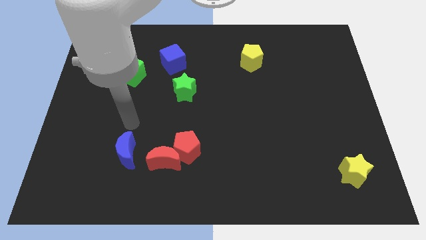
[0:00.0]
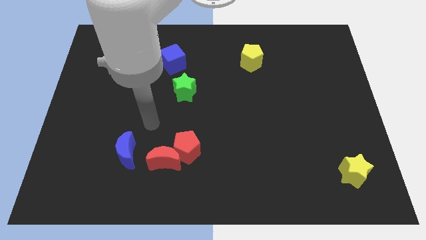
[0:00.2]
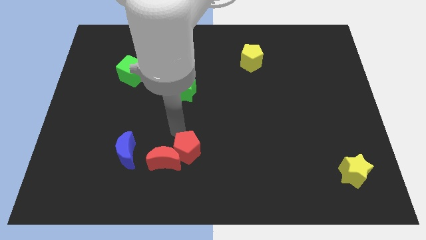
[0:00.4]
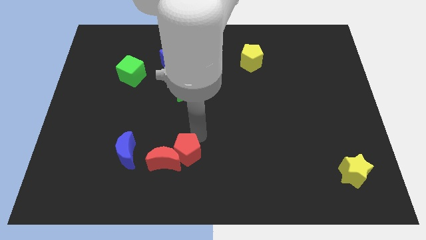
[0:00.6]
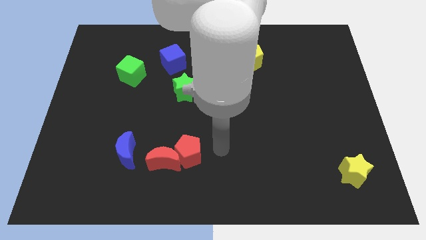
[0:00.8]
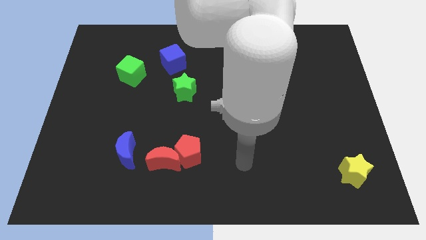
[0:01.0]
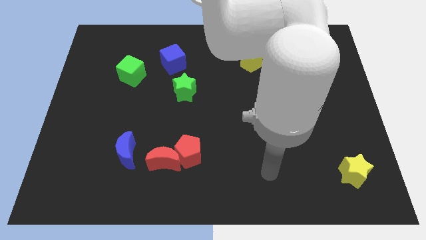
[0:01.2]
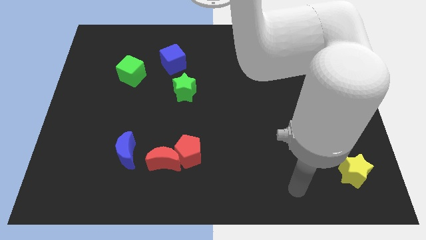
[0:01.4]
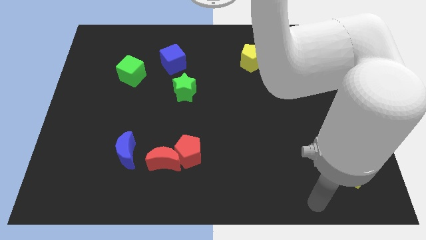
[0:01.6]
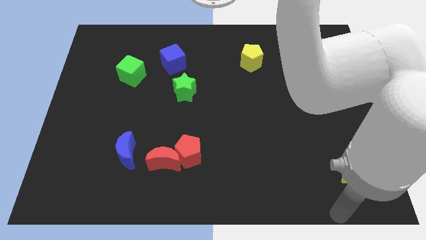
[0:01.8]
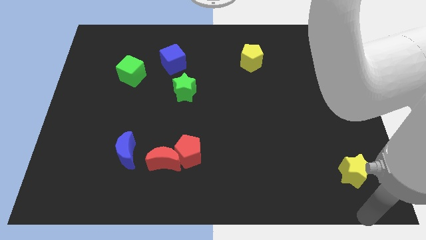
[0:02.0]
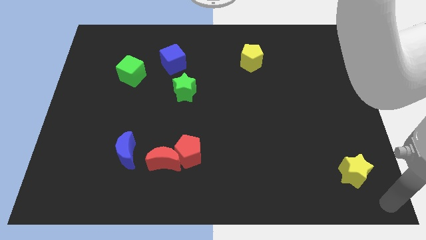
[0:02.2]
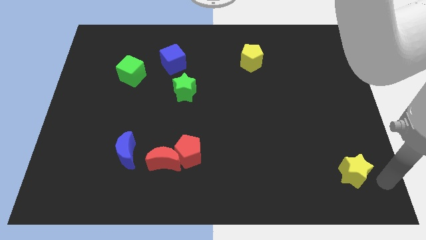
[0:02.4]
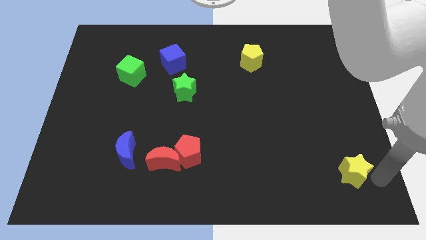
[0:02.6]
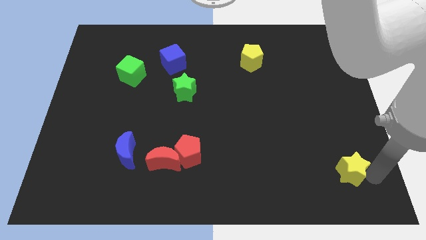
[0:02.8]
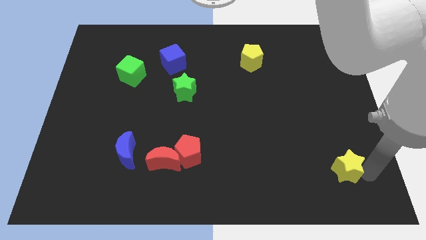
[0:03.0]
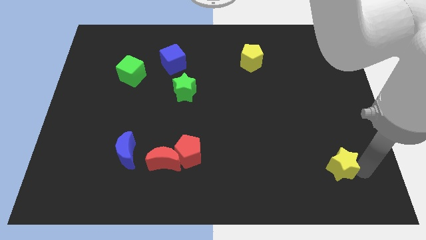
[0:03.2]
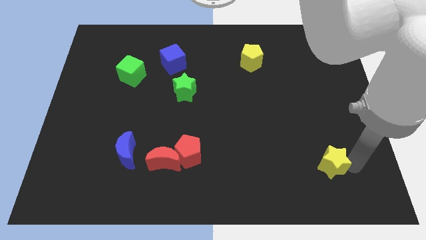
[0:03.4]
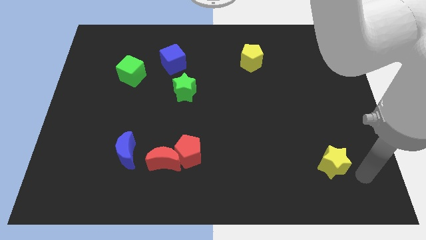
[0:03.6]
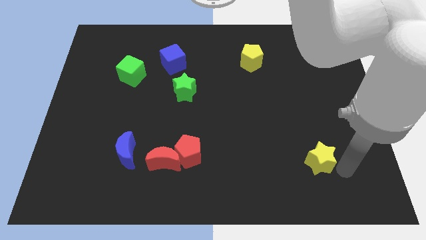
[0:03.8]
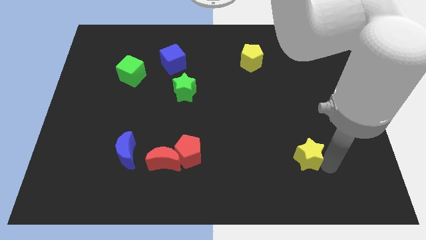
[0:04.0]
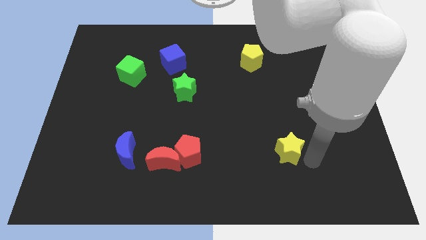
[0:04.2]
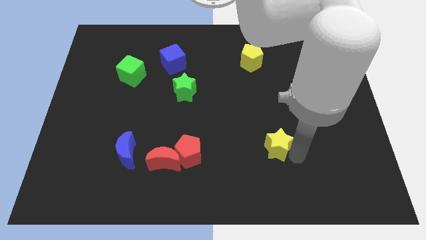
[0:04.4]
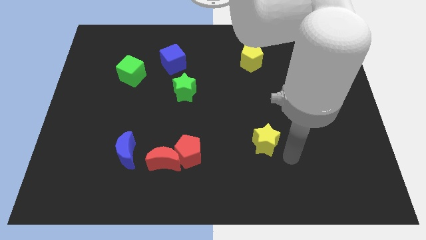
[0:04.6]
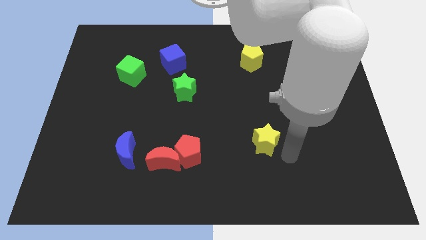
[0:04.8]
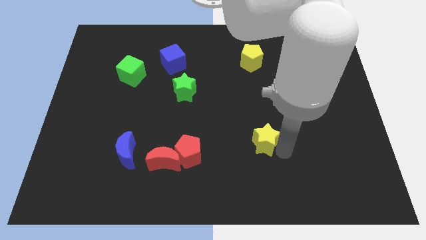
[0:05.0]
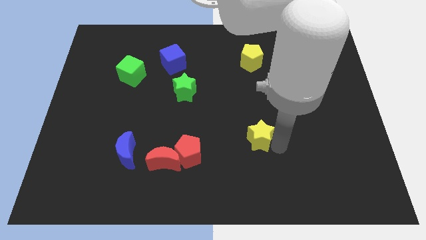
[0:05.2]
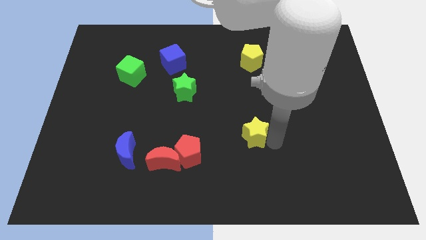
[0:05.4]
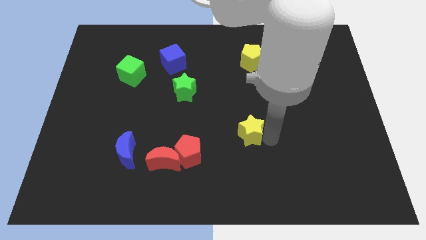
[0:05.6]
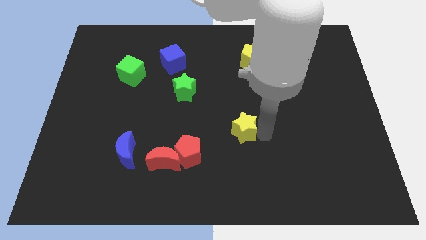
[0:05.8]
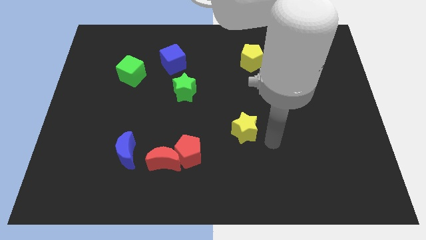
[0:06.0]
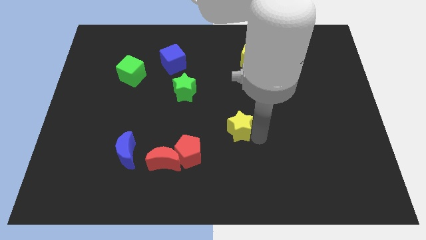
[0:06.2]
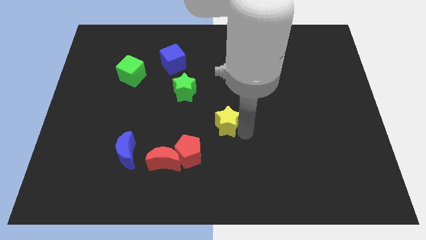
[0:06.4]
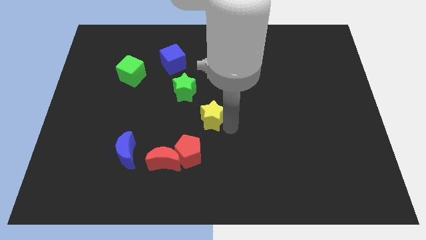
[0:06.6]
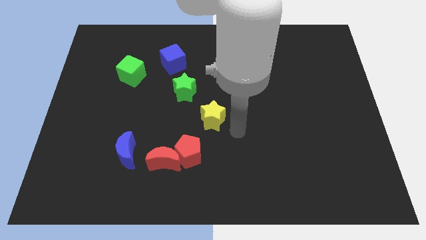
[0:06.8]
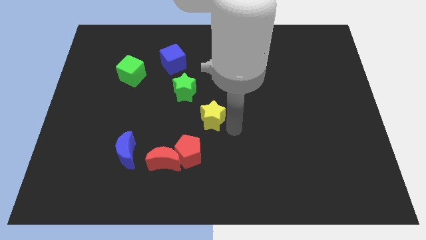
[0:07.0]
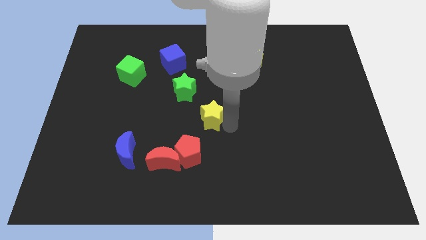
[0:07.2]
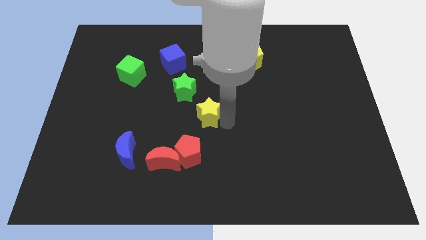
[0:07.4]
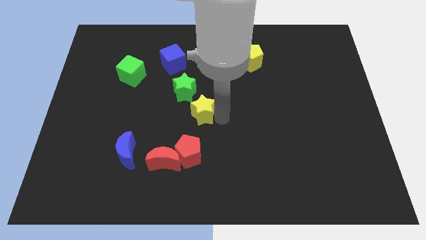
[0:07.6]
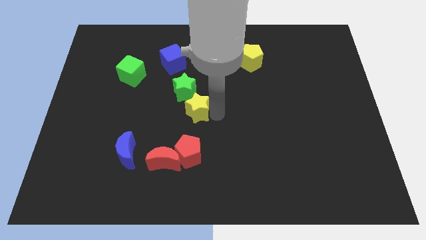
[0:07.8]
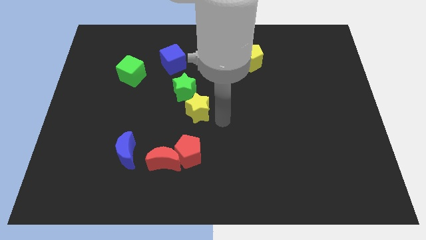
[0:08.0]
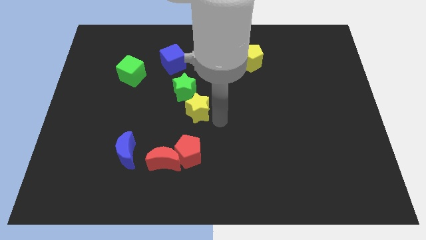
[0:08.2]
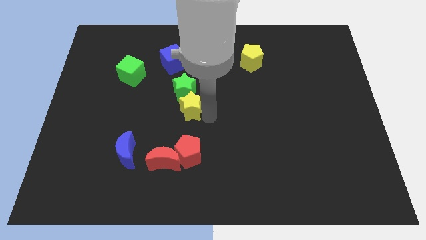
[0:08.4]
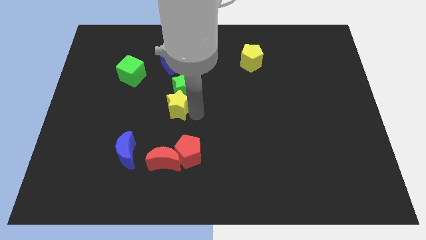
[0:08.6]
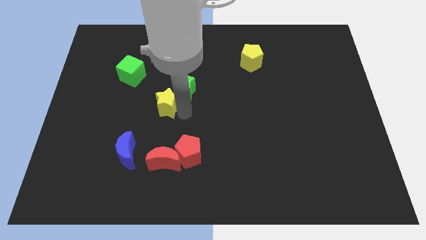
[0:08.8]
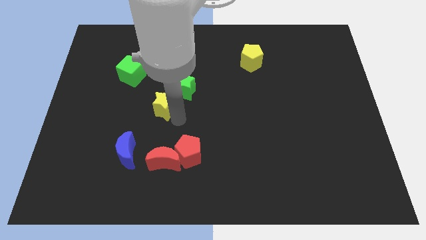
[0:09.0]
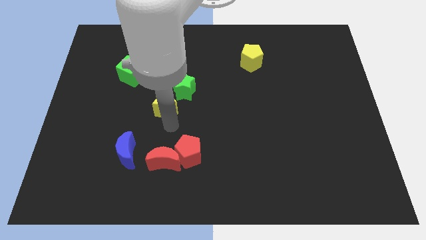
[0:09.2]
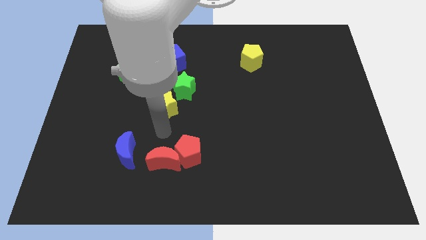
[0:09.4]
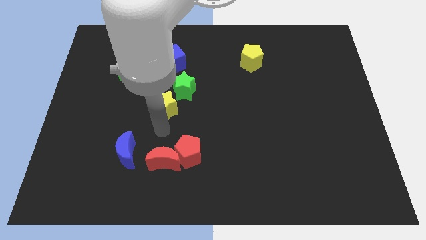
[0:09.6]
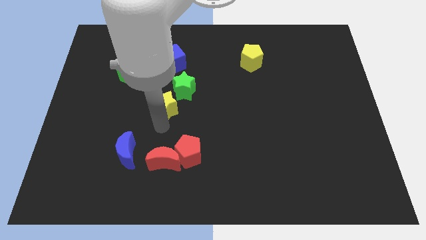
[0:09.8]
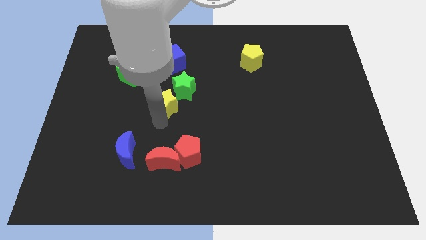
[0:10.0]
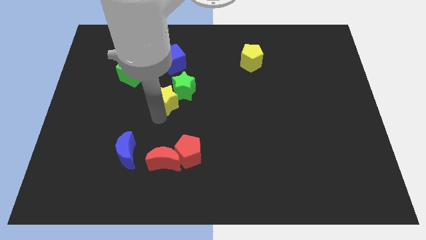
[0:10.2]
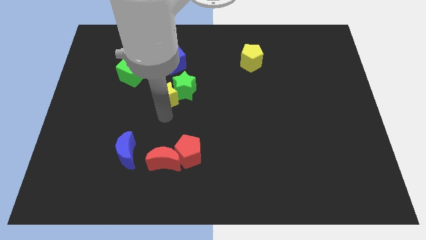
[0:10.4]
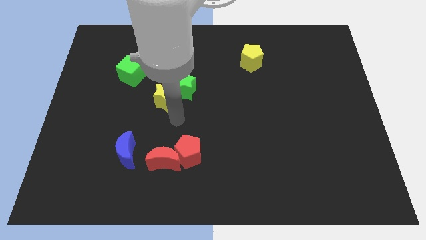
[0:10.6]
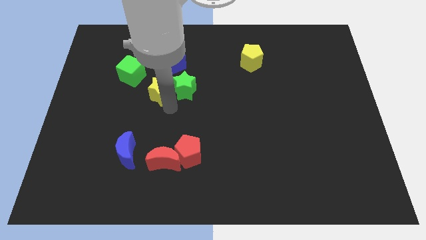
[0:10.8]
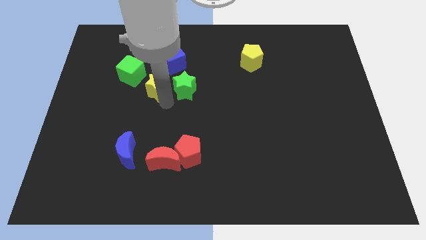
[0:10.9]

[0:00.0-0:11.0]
slide the yellow star diagonally down and to the left of the blue cube

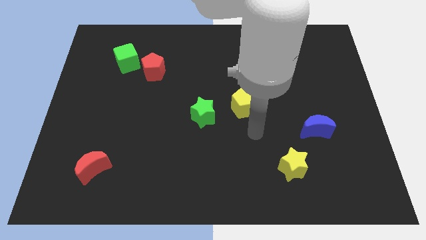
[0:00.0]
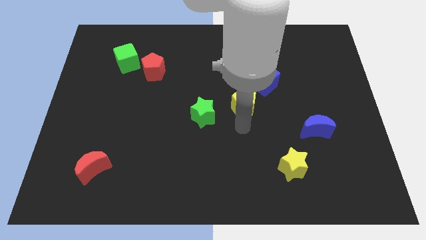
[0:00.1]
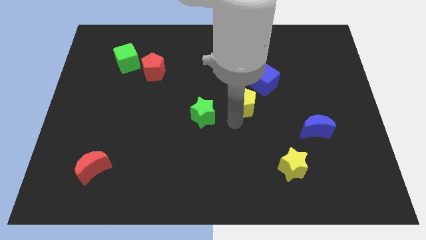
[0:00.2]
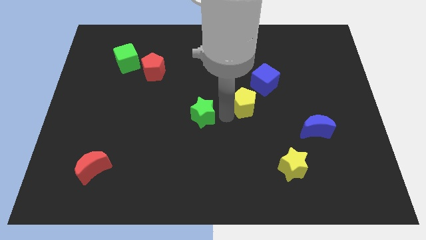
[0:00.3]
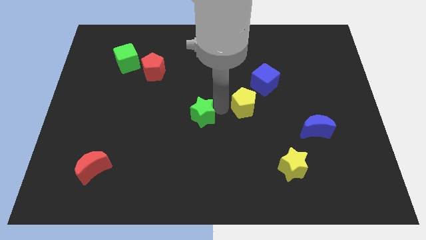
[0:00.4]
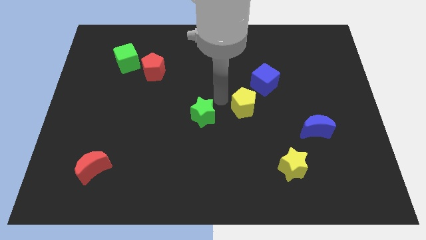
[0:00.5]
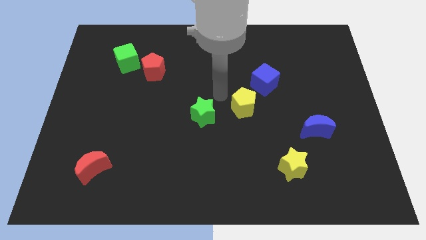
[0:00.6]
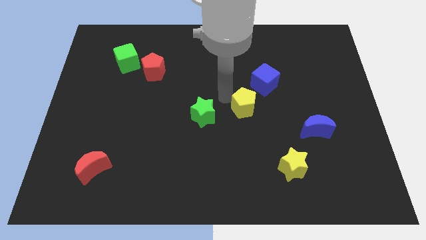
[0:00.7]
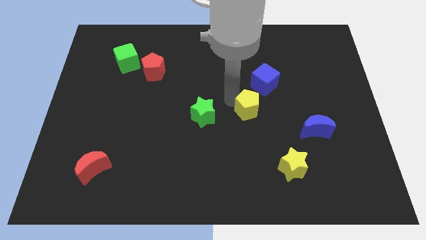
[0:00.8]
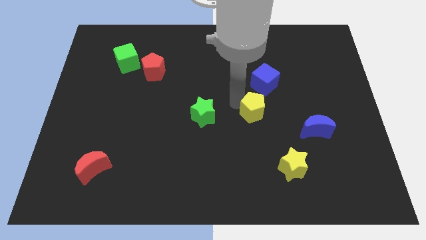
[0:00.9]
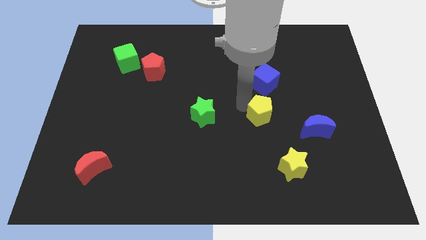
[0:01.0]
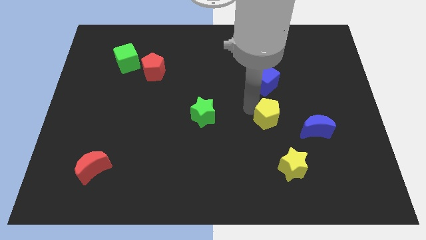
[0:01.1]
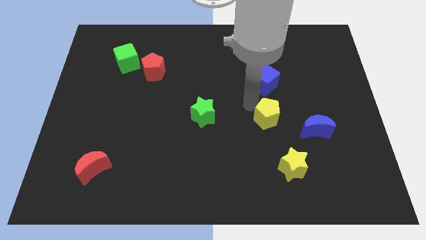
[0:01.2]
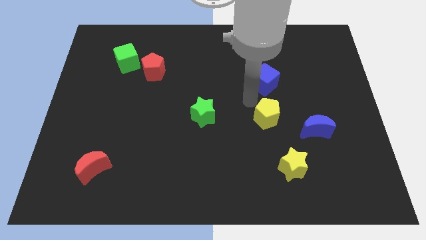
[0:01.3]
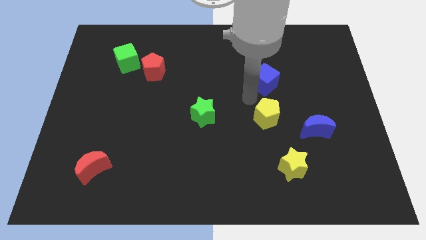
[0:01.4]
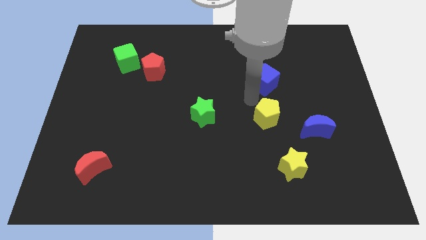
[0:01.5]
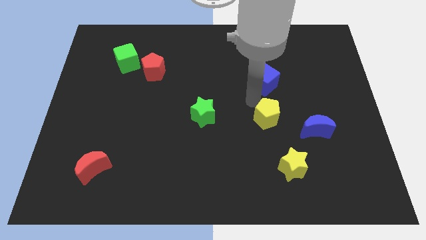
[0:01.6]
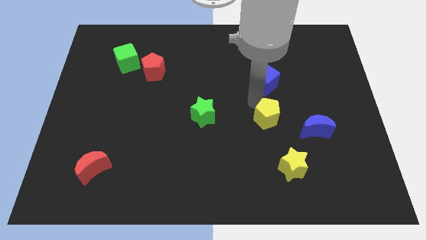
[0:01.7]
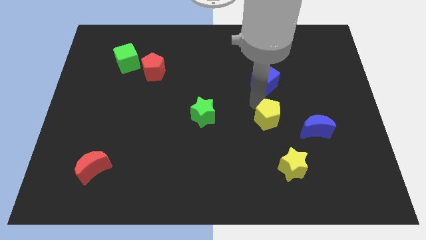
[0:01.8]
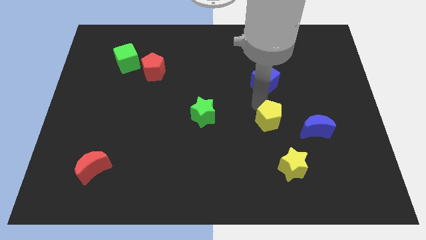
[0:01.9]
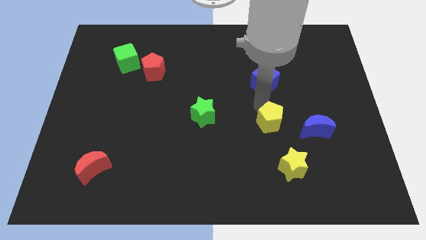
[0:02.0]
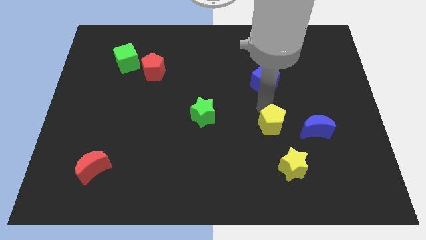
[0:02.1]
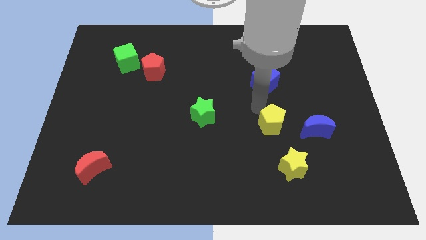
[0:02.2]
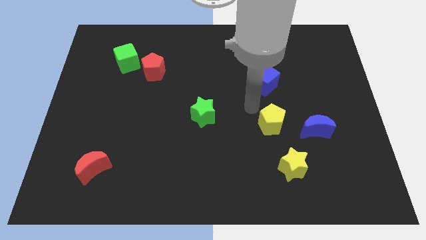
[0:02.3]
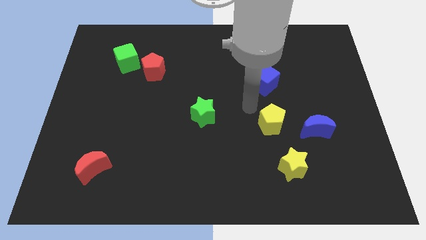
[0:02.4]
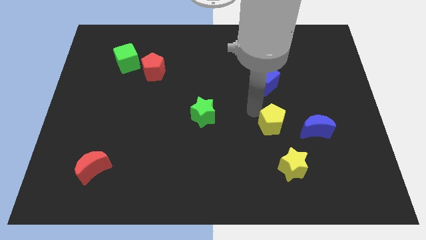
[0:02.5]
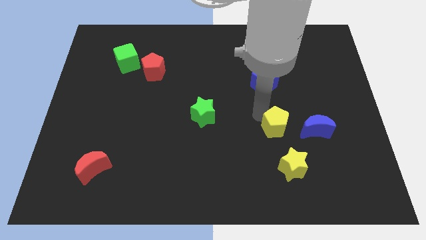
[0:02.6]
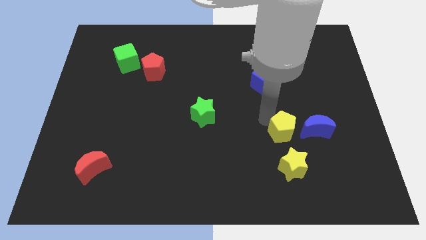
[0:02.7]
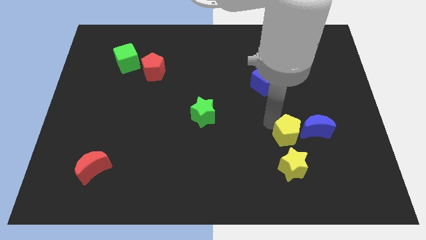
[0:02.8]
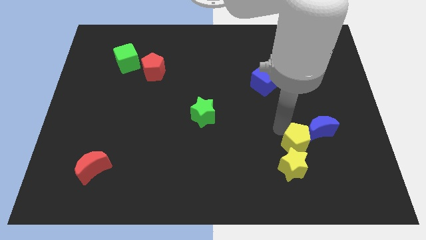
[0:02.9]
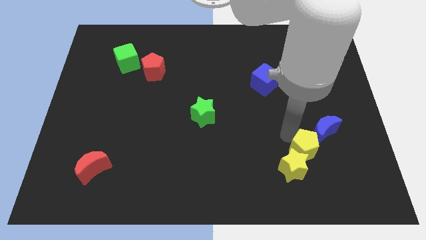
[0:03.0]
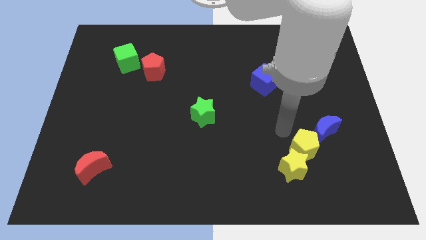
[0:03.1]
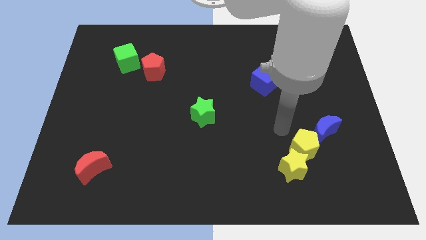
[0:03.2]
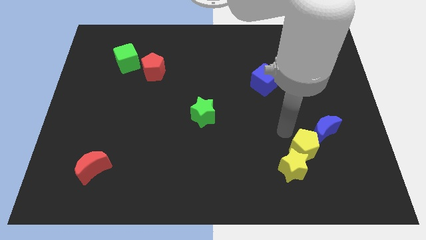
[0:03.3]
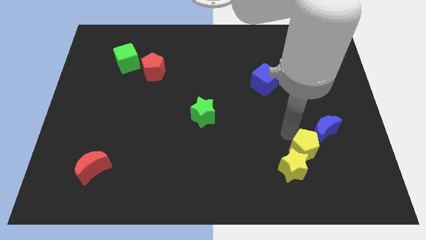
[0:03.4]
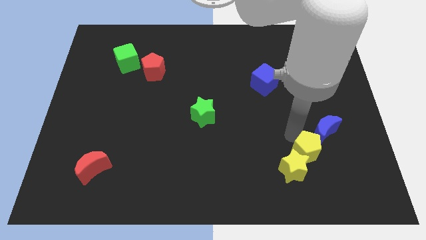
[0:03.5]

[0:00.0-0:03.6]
push the yellow pentagon to the bottom of the blue moon
